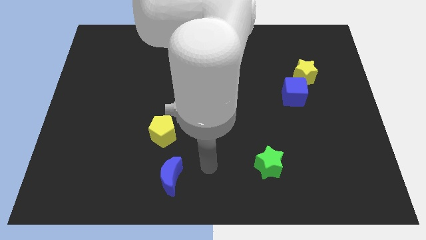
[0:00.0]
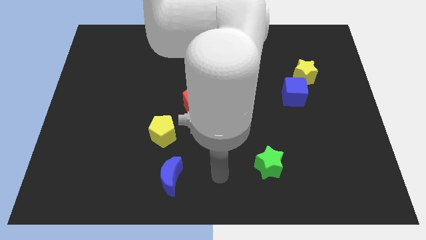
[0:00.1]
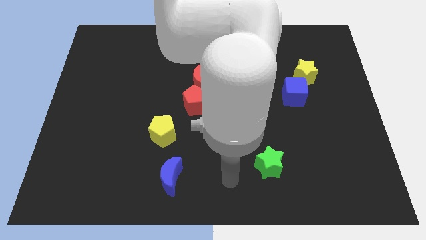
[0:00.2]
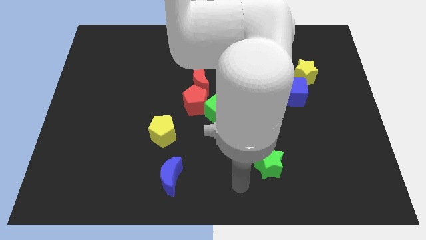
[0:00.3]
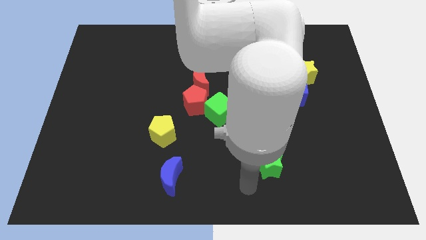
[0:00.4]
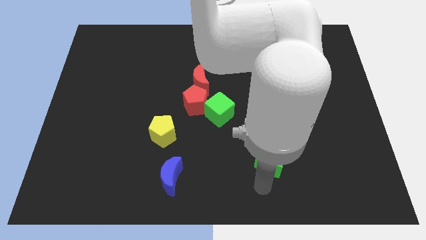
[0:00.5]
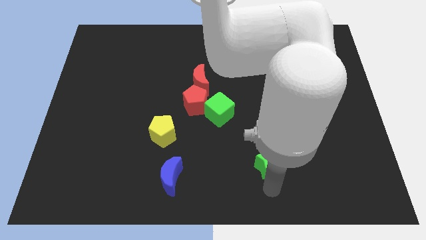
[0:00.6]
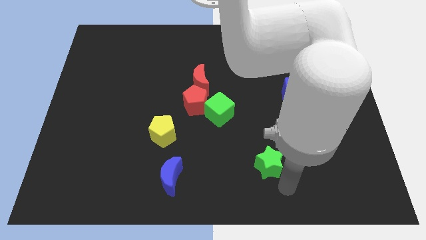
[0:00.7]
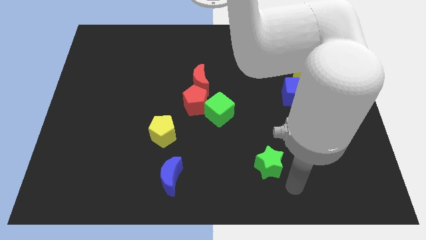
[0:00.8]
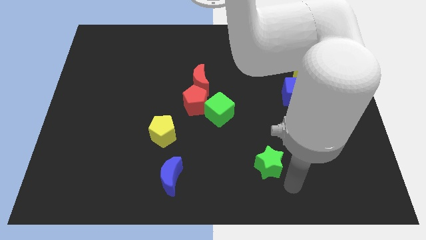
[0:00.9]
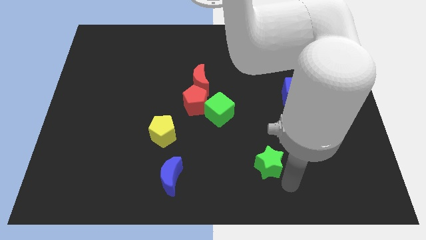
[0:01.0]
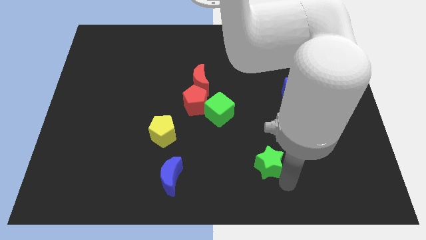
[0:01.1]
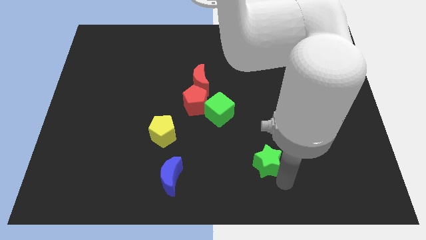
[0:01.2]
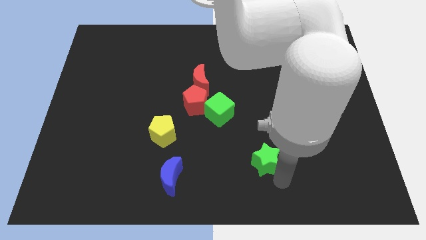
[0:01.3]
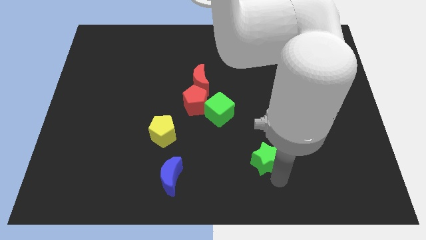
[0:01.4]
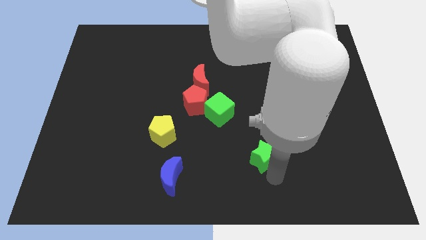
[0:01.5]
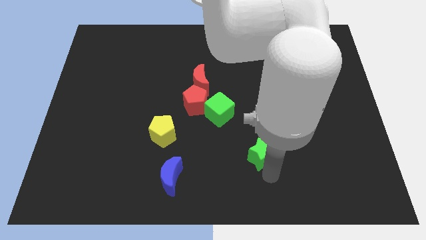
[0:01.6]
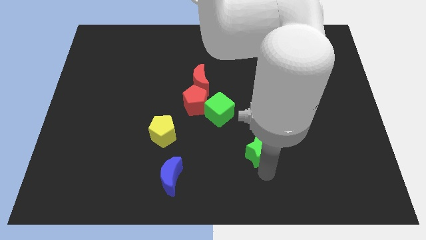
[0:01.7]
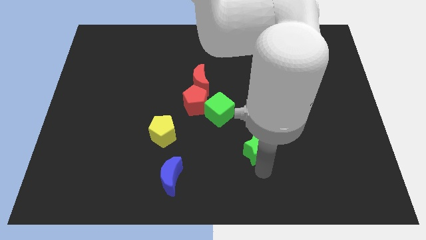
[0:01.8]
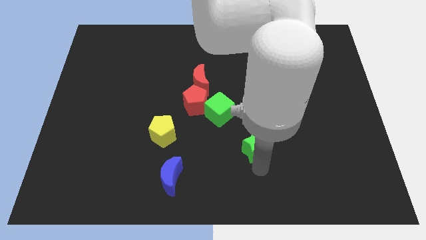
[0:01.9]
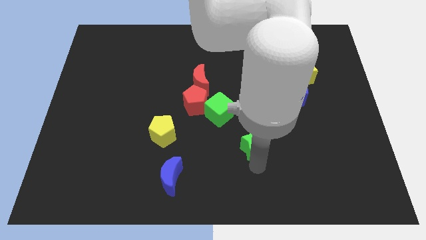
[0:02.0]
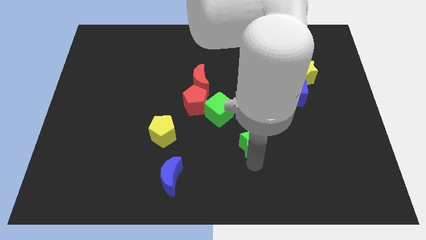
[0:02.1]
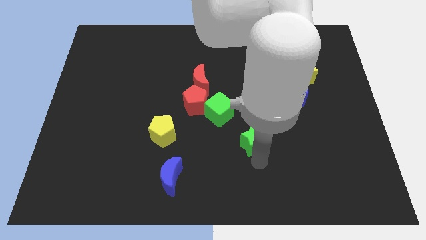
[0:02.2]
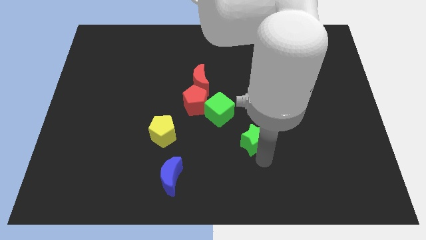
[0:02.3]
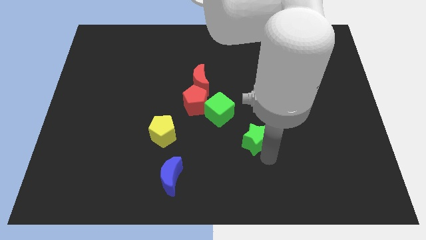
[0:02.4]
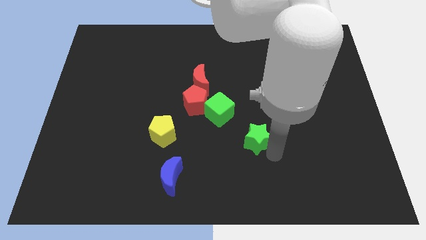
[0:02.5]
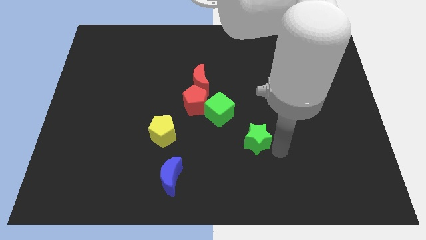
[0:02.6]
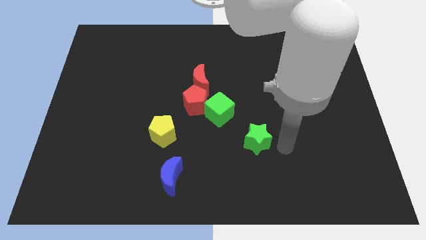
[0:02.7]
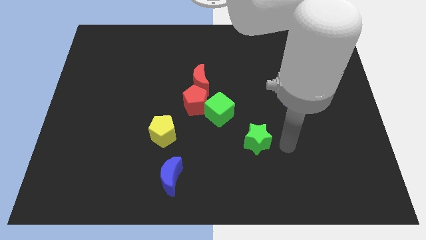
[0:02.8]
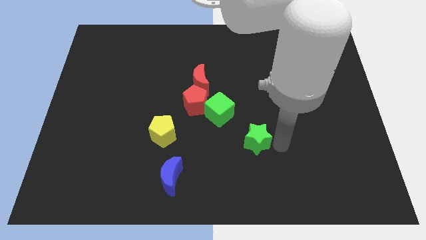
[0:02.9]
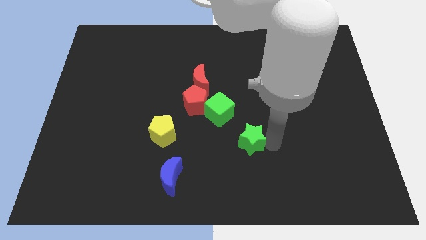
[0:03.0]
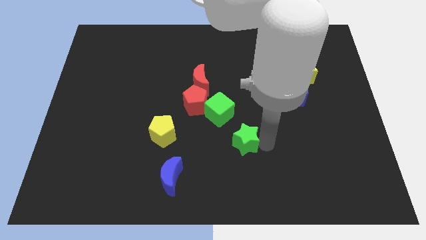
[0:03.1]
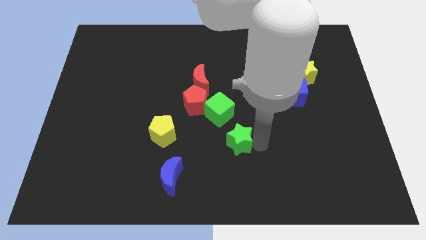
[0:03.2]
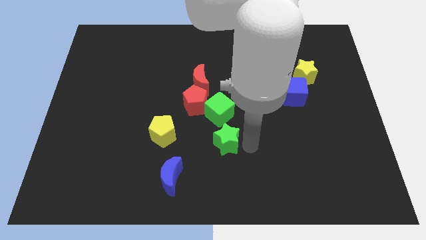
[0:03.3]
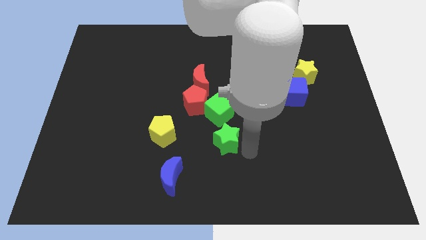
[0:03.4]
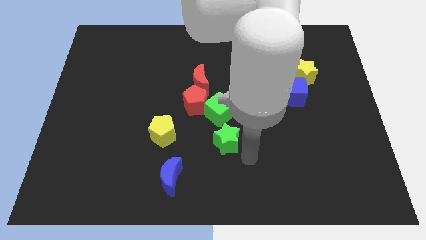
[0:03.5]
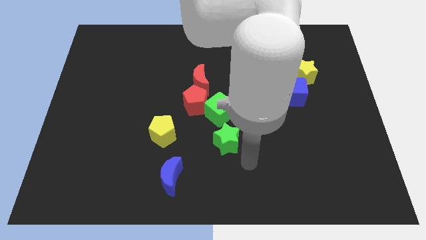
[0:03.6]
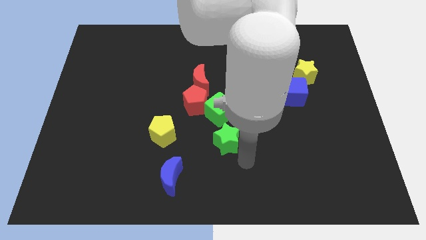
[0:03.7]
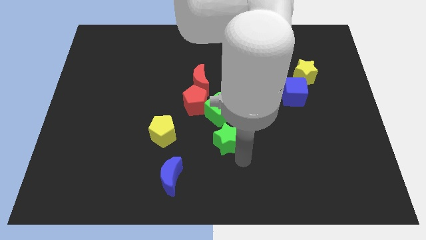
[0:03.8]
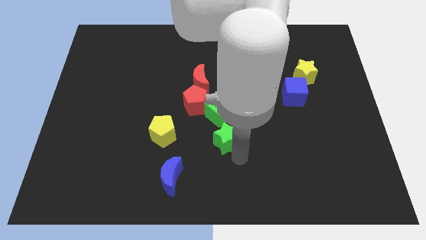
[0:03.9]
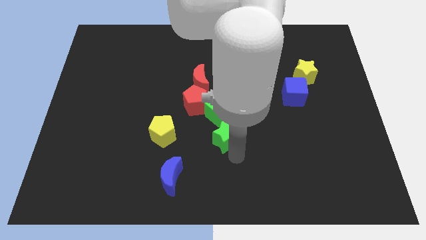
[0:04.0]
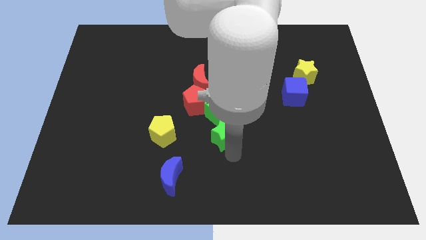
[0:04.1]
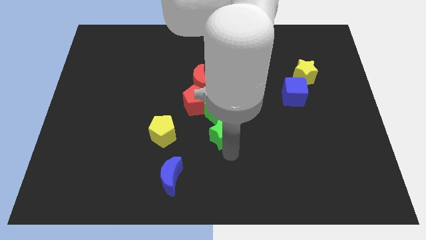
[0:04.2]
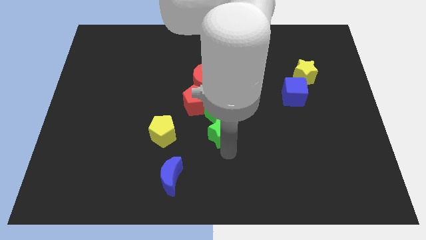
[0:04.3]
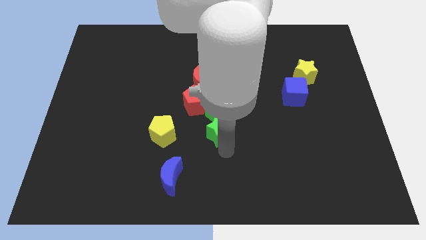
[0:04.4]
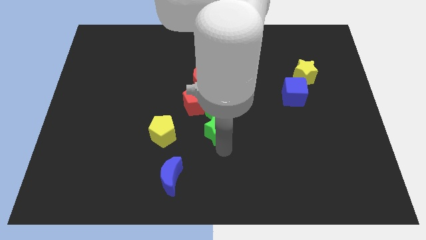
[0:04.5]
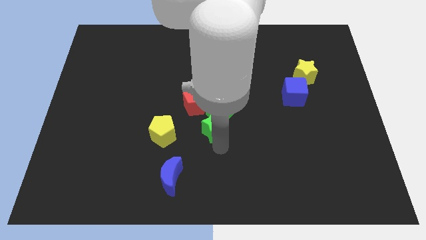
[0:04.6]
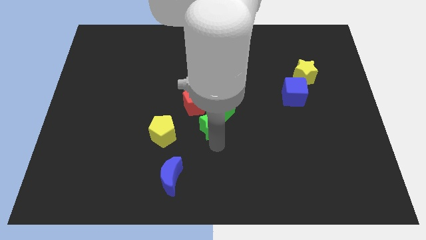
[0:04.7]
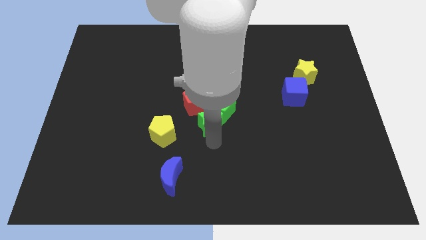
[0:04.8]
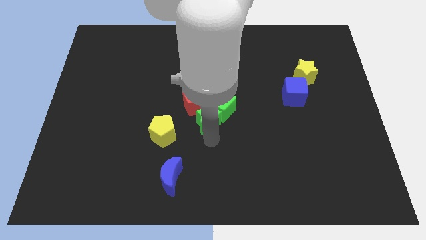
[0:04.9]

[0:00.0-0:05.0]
slide the green star next to the red pentagon

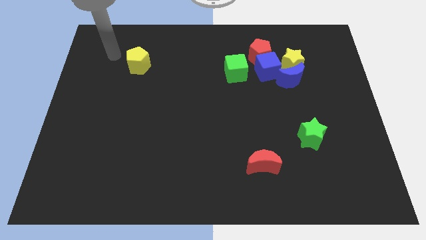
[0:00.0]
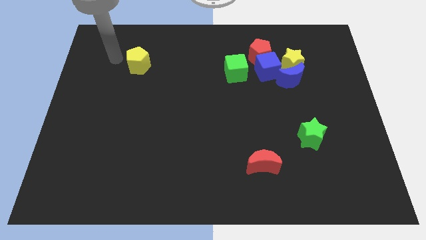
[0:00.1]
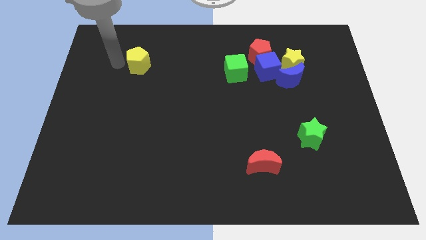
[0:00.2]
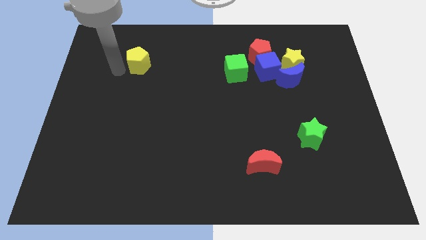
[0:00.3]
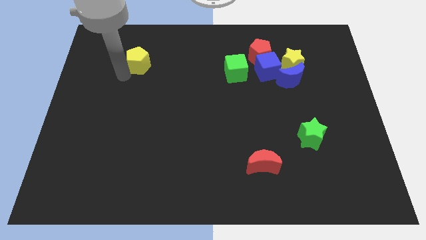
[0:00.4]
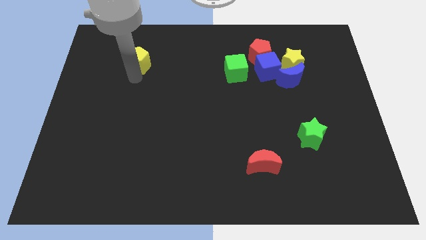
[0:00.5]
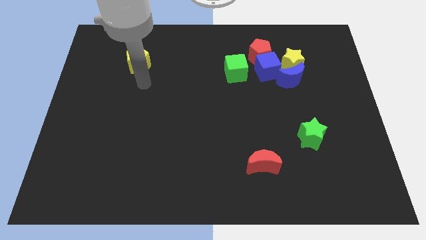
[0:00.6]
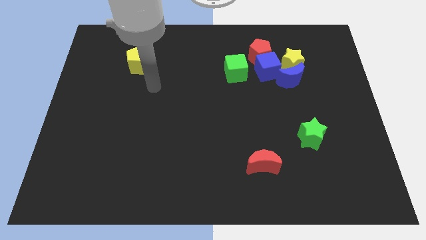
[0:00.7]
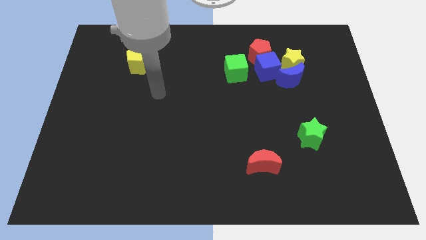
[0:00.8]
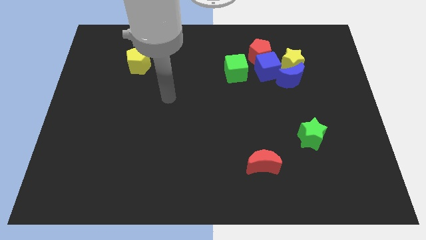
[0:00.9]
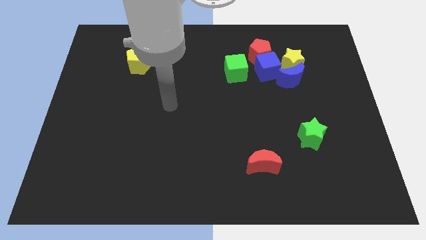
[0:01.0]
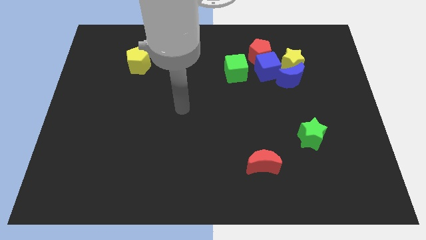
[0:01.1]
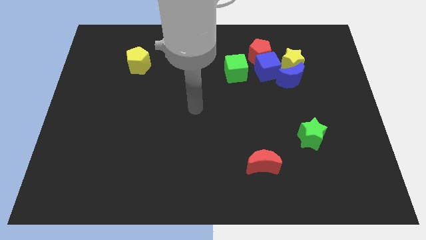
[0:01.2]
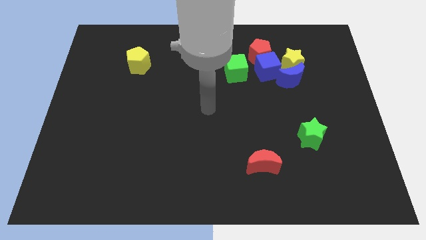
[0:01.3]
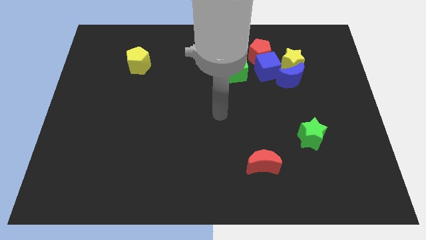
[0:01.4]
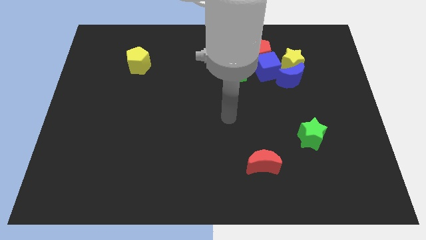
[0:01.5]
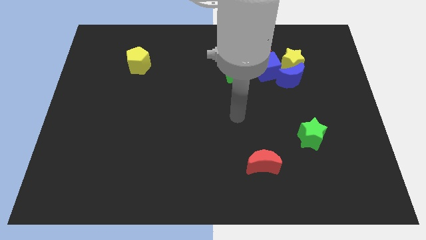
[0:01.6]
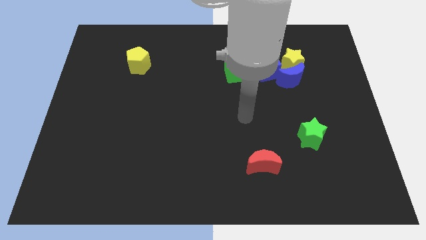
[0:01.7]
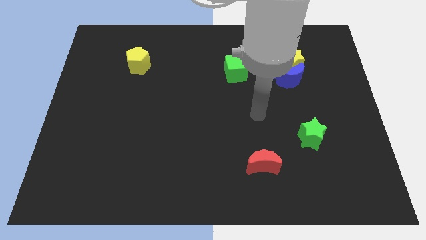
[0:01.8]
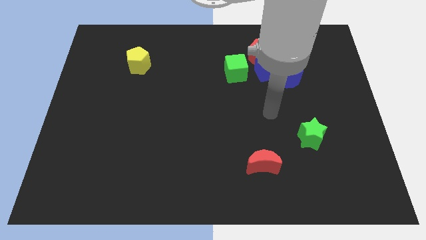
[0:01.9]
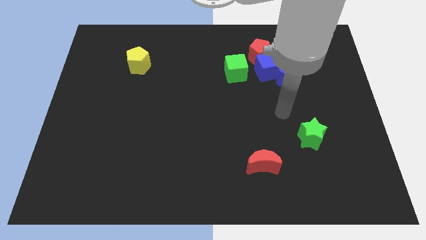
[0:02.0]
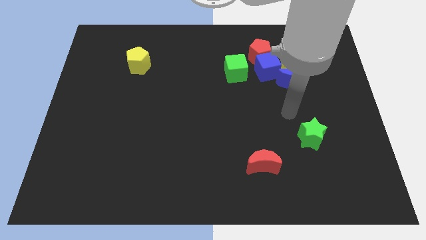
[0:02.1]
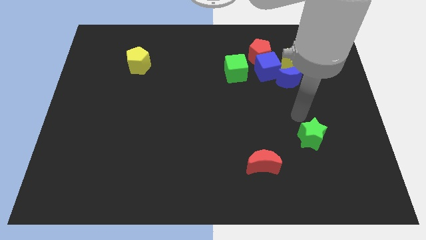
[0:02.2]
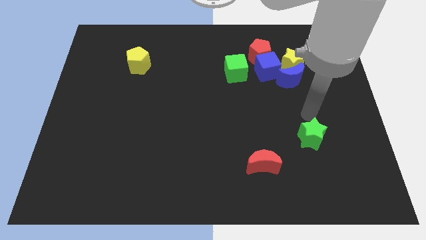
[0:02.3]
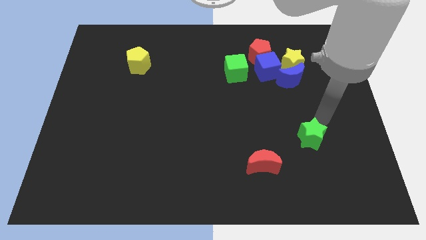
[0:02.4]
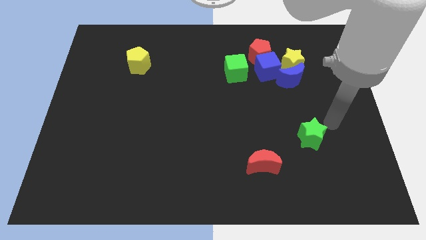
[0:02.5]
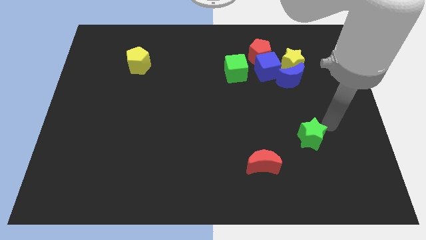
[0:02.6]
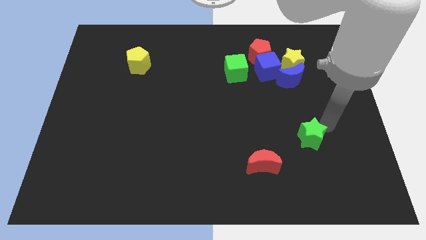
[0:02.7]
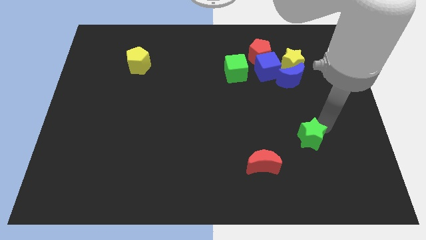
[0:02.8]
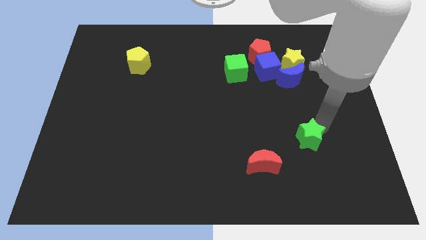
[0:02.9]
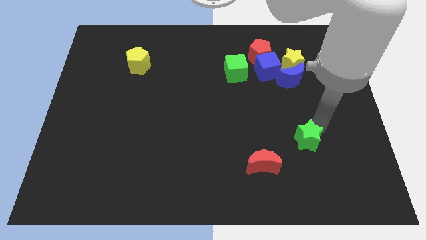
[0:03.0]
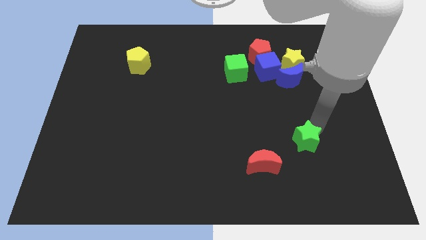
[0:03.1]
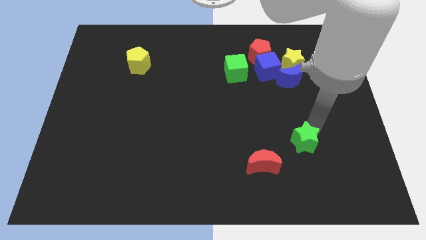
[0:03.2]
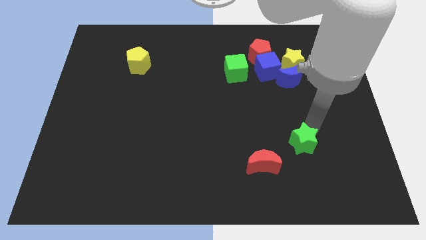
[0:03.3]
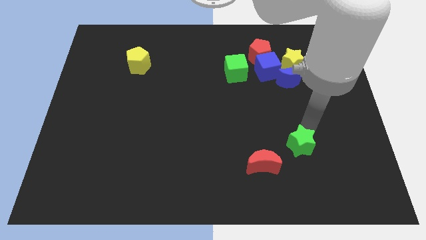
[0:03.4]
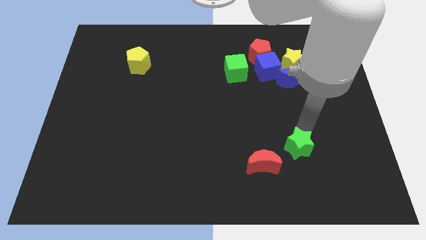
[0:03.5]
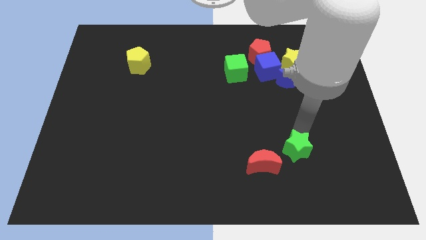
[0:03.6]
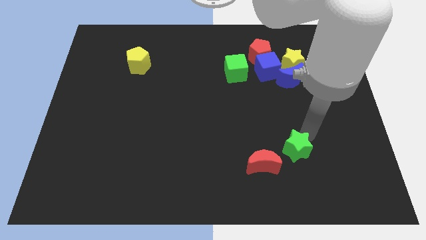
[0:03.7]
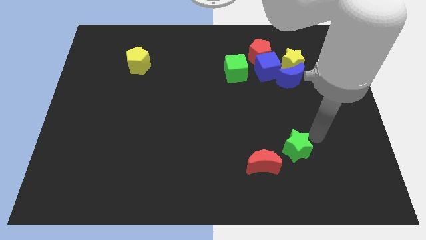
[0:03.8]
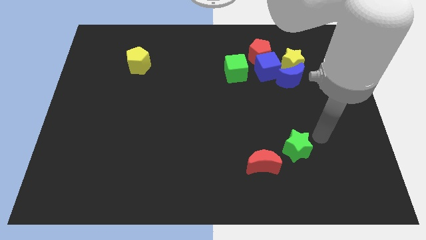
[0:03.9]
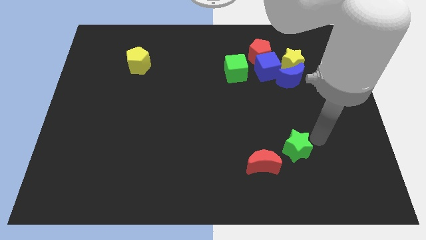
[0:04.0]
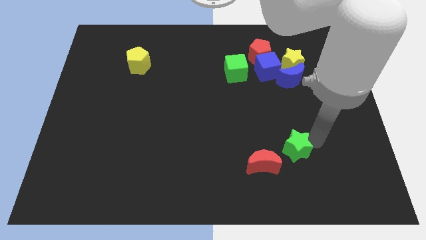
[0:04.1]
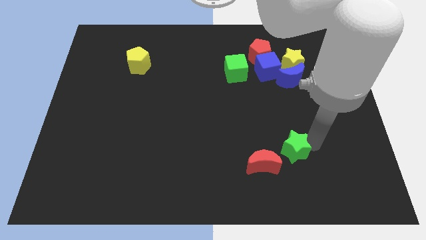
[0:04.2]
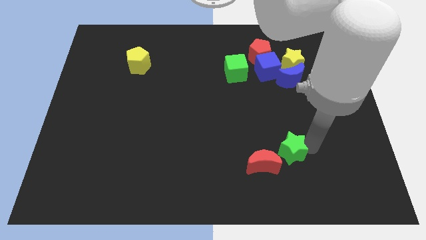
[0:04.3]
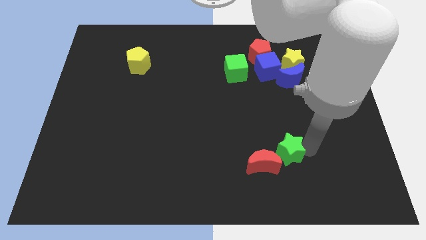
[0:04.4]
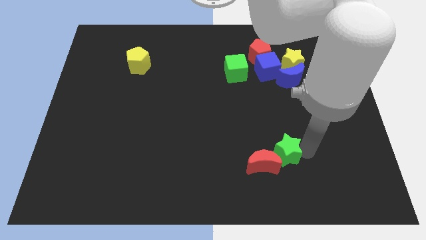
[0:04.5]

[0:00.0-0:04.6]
slide the green star to the red moon
